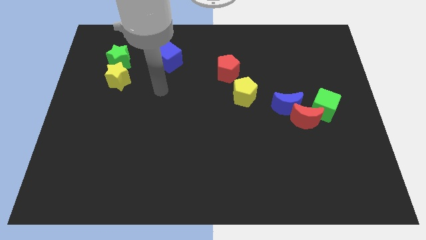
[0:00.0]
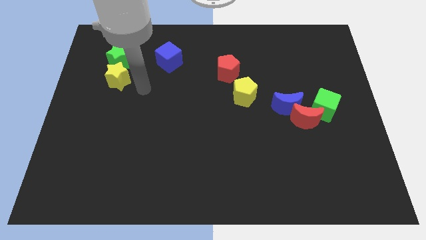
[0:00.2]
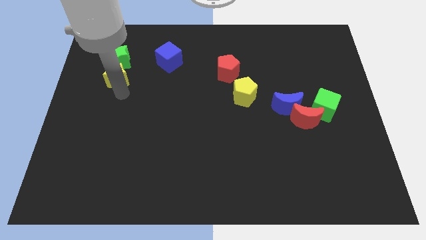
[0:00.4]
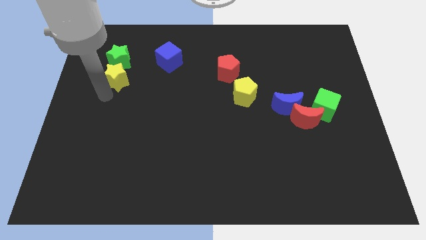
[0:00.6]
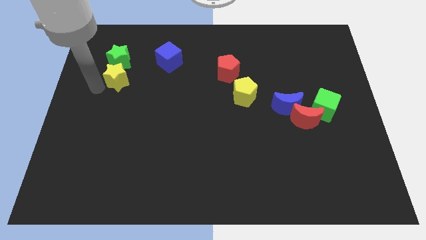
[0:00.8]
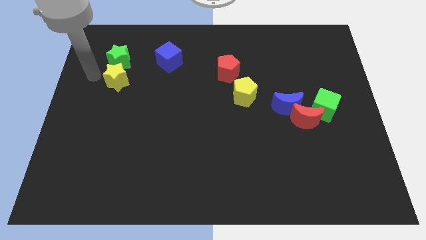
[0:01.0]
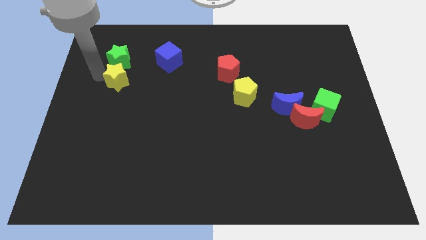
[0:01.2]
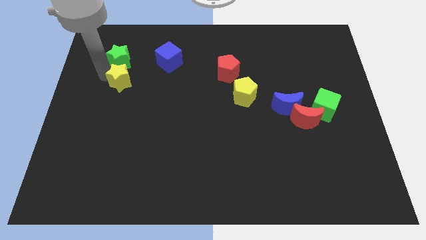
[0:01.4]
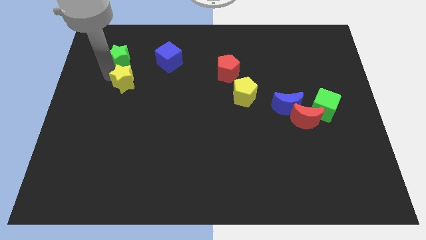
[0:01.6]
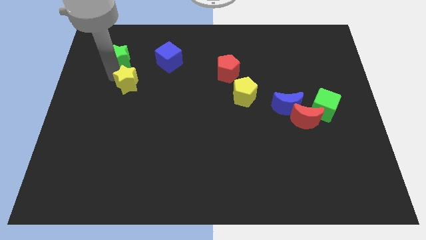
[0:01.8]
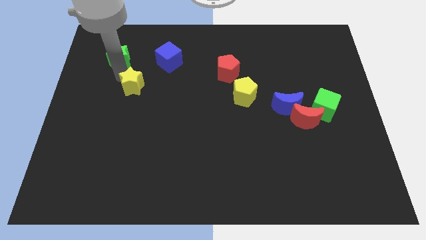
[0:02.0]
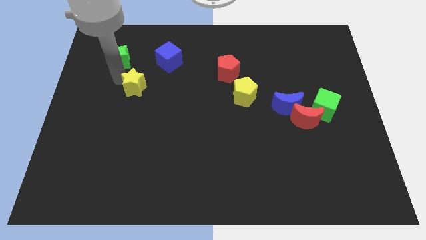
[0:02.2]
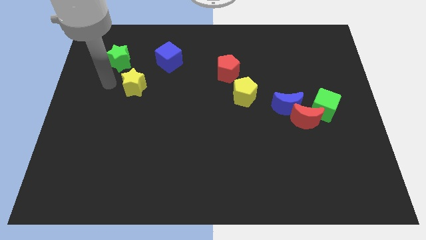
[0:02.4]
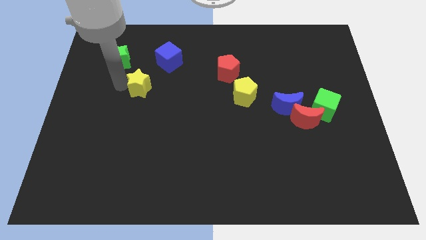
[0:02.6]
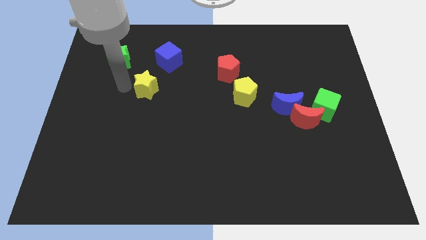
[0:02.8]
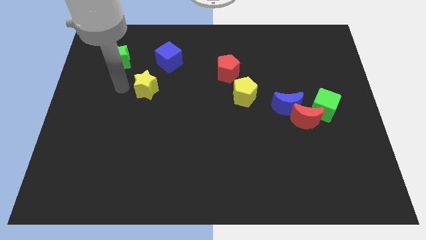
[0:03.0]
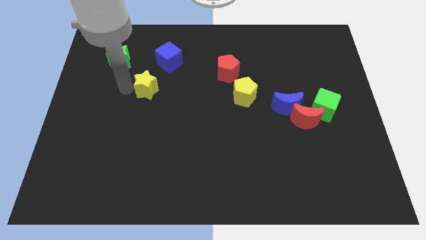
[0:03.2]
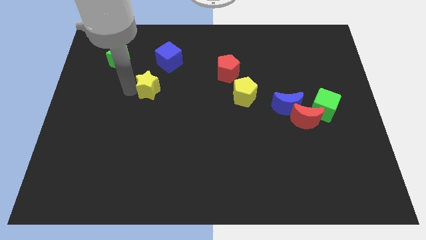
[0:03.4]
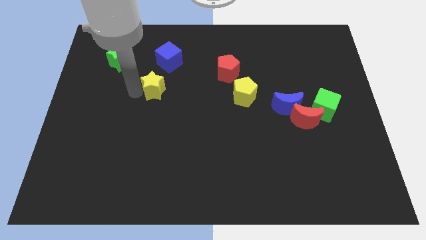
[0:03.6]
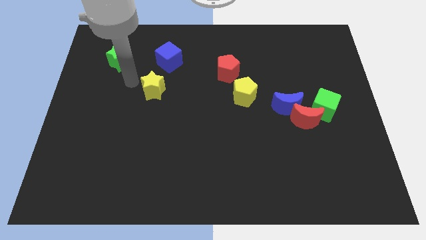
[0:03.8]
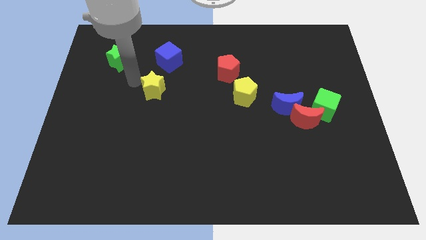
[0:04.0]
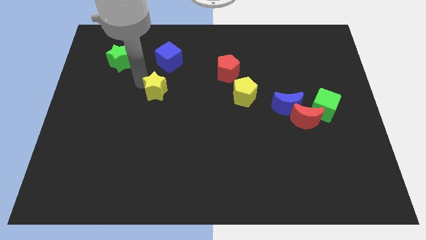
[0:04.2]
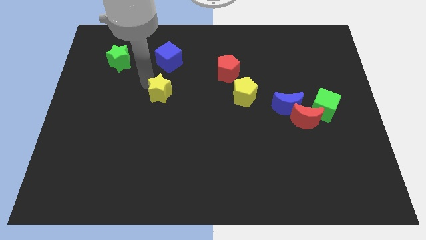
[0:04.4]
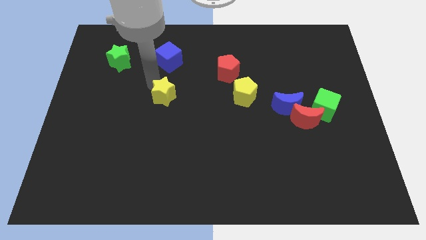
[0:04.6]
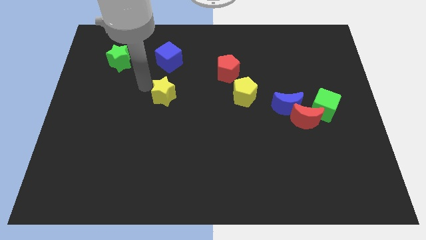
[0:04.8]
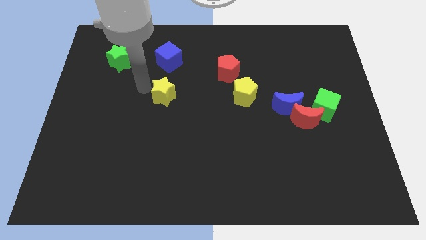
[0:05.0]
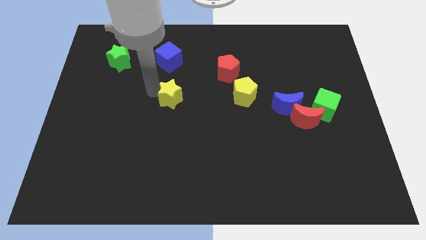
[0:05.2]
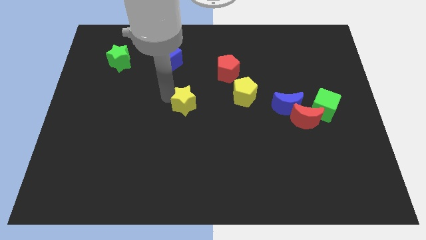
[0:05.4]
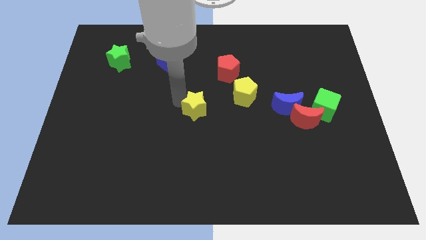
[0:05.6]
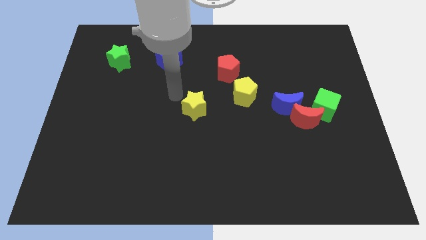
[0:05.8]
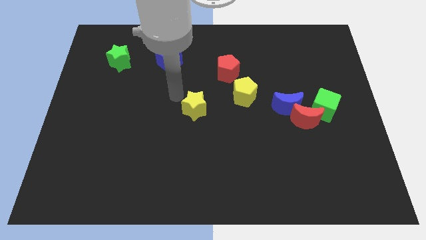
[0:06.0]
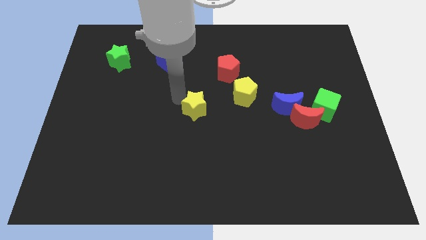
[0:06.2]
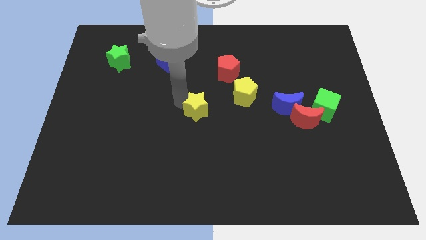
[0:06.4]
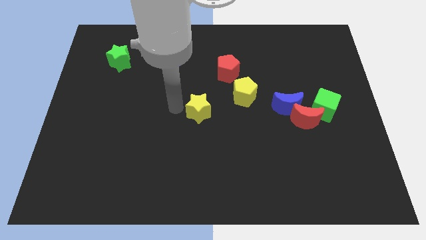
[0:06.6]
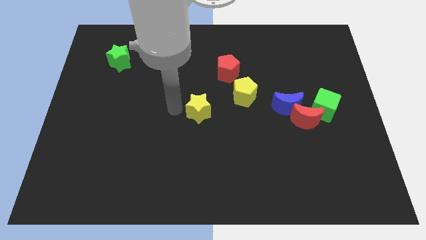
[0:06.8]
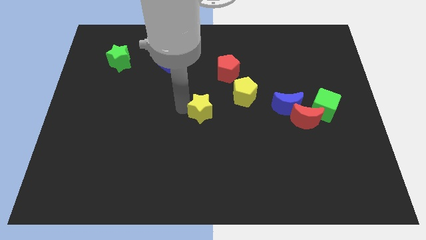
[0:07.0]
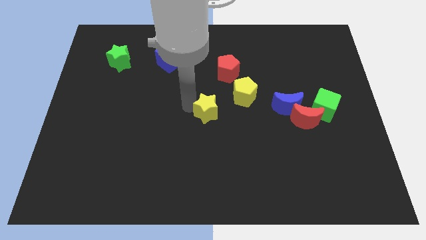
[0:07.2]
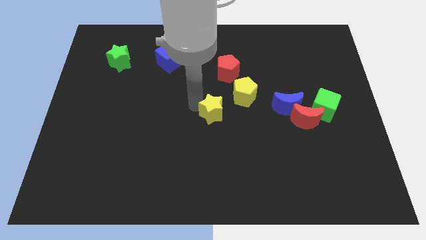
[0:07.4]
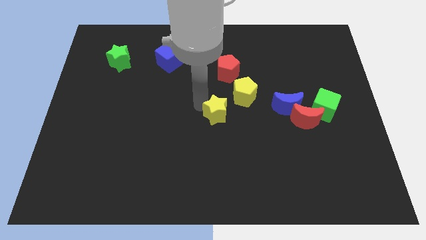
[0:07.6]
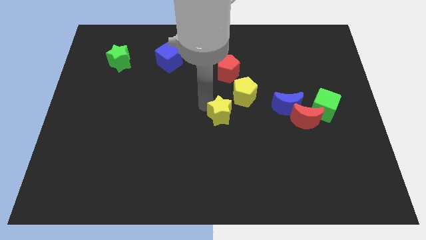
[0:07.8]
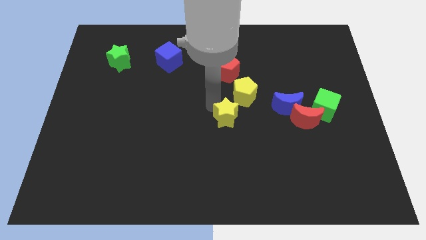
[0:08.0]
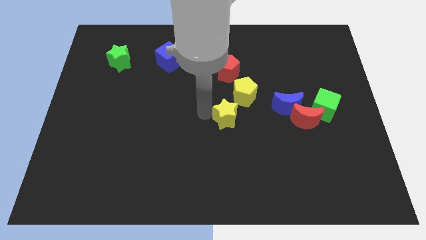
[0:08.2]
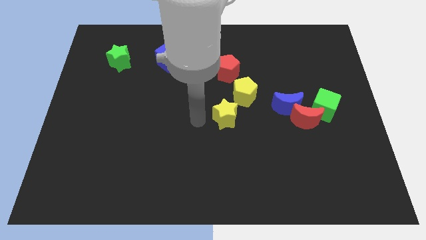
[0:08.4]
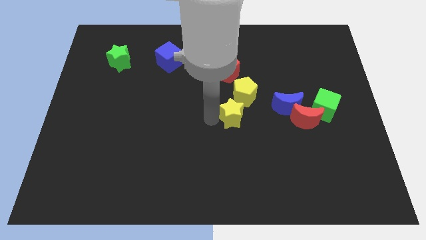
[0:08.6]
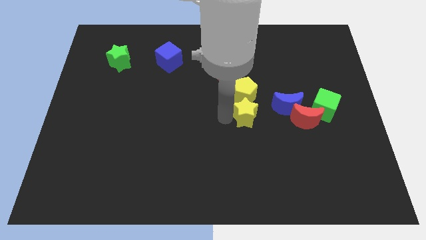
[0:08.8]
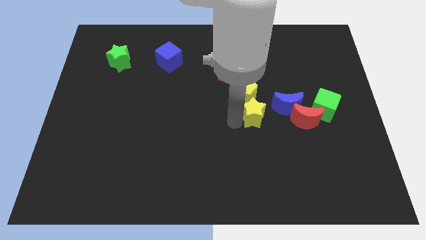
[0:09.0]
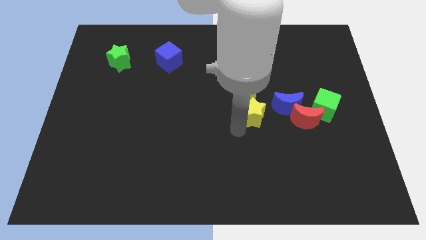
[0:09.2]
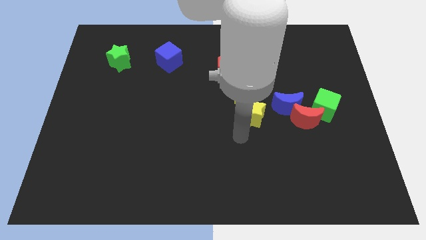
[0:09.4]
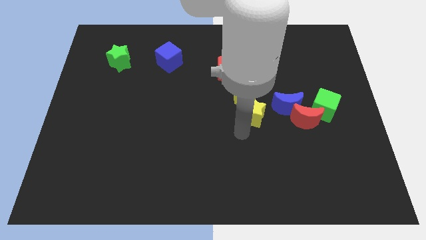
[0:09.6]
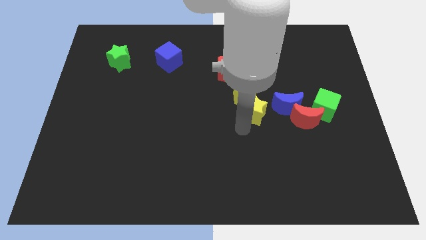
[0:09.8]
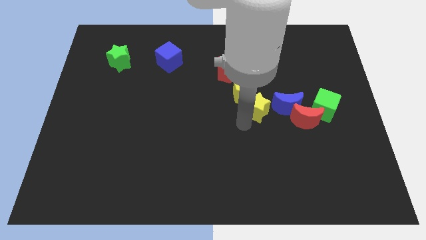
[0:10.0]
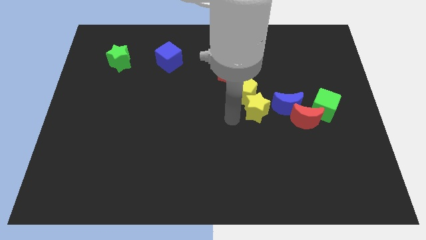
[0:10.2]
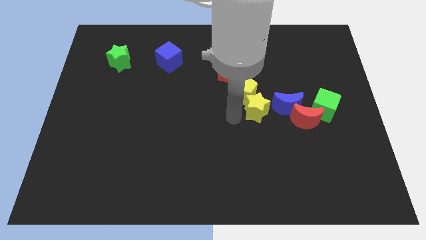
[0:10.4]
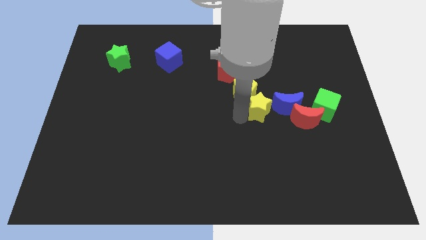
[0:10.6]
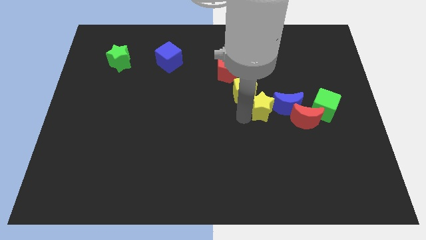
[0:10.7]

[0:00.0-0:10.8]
move the yellow star to the top left of the red moon

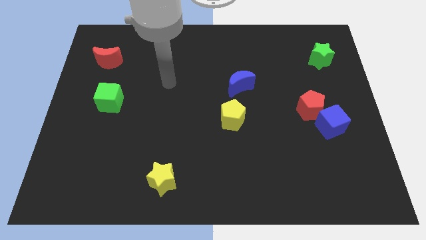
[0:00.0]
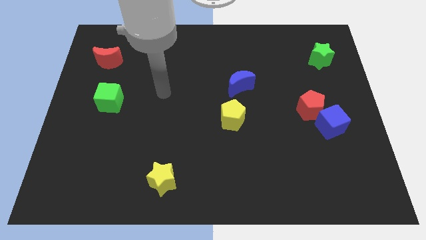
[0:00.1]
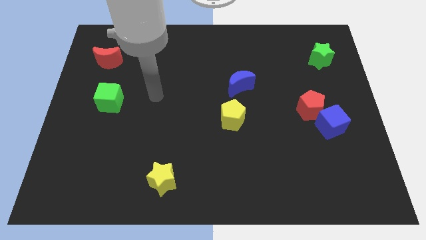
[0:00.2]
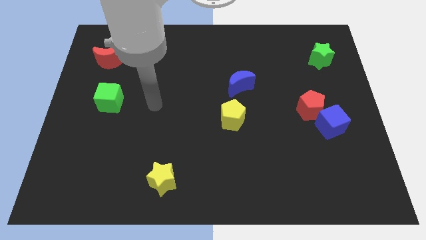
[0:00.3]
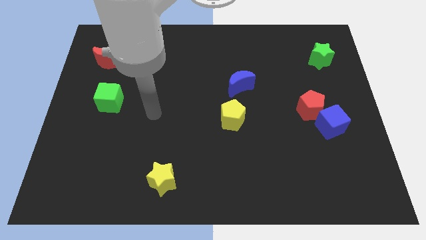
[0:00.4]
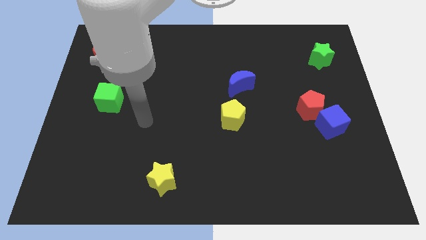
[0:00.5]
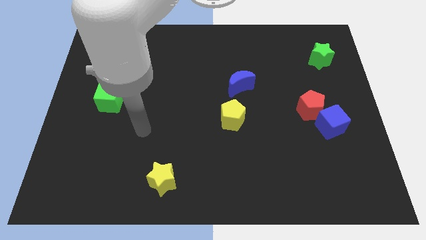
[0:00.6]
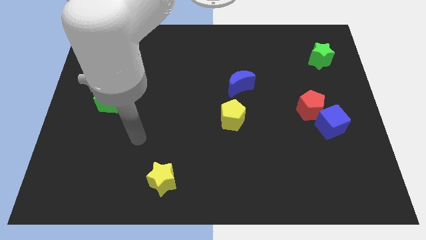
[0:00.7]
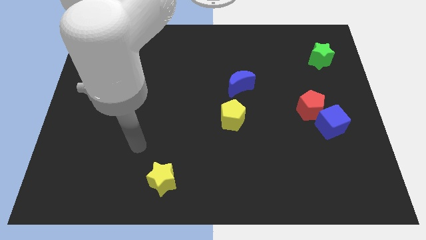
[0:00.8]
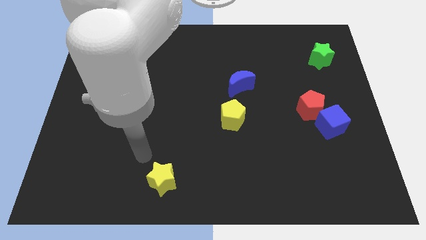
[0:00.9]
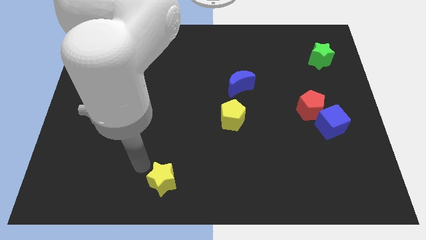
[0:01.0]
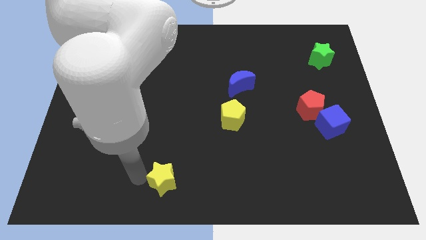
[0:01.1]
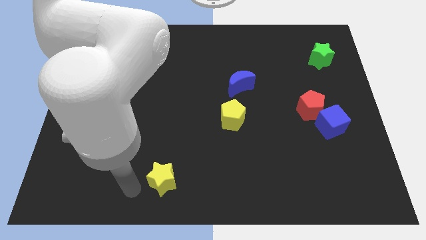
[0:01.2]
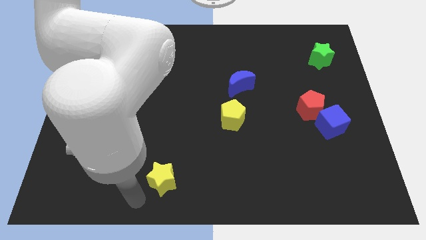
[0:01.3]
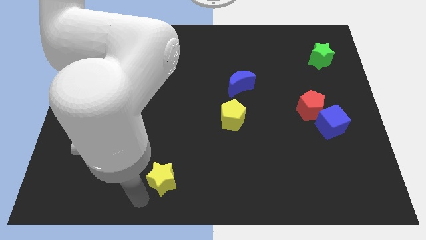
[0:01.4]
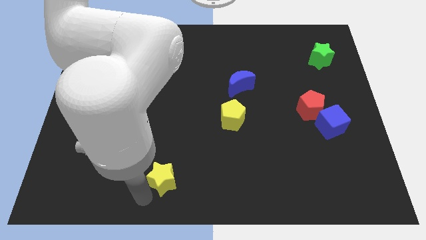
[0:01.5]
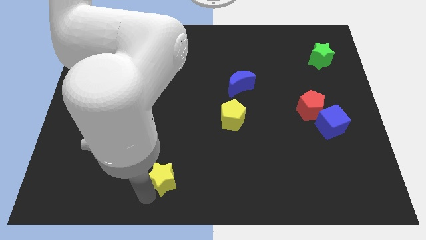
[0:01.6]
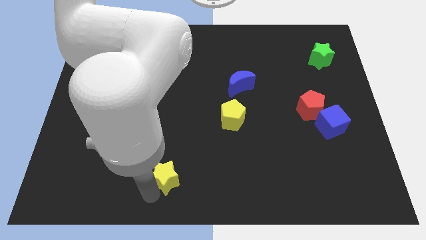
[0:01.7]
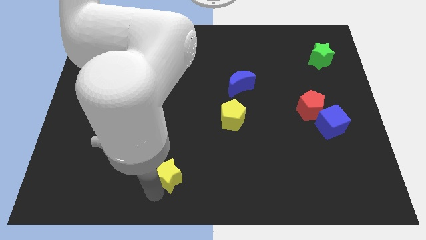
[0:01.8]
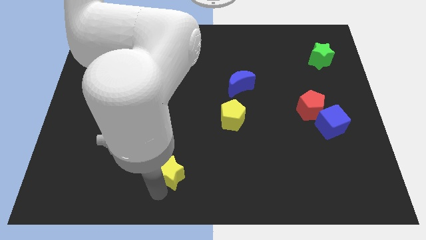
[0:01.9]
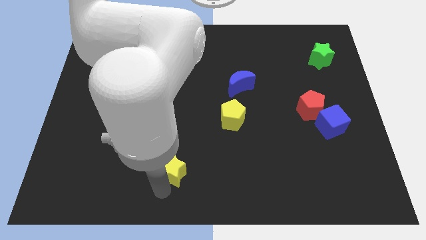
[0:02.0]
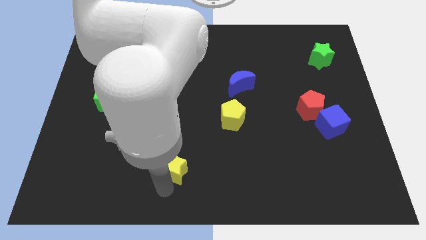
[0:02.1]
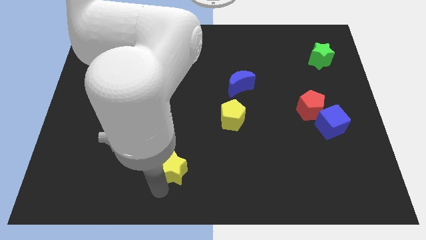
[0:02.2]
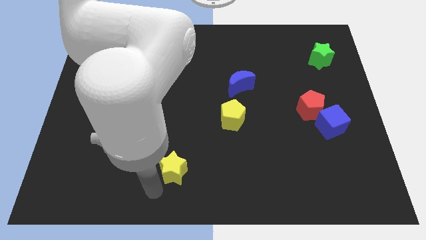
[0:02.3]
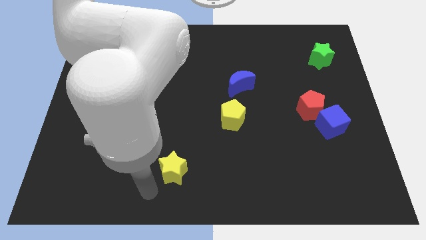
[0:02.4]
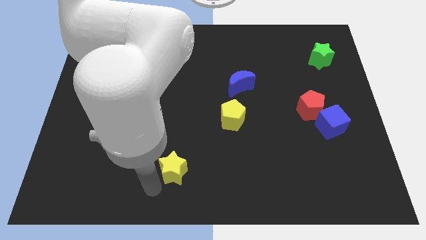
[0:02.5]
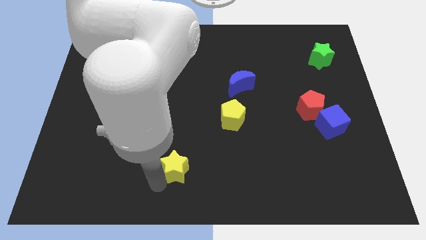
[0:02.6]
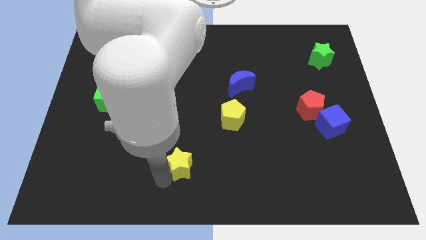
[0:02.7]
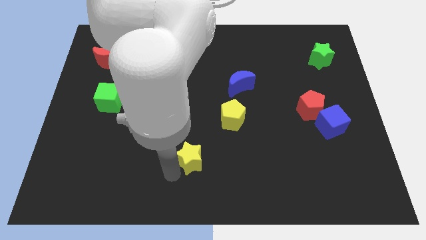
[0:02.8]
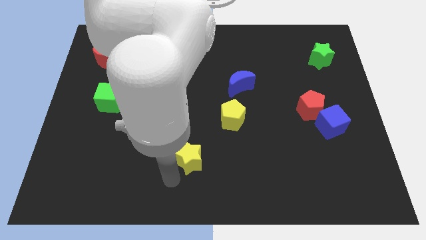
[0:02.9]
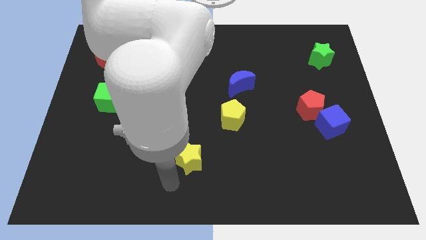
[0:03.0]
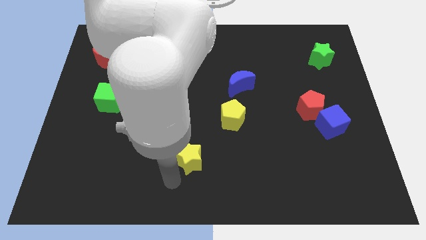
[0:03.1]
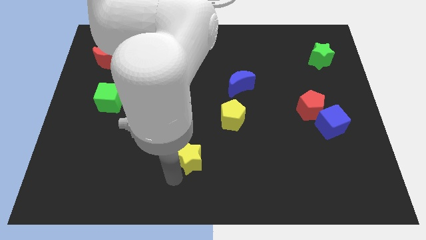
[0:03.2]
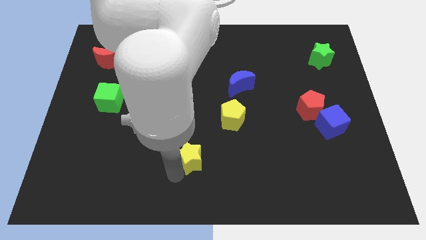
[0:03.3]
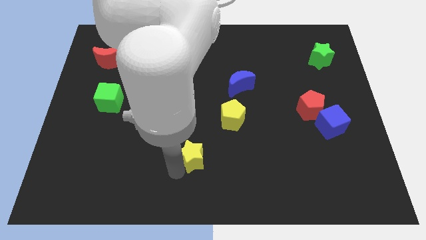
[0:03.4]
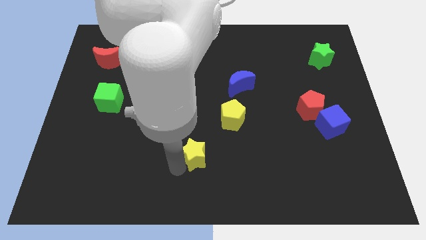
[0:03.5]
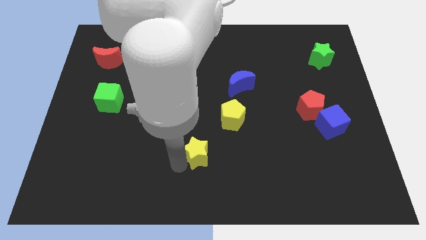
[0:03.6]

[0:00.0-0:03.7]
move the yellow star diagonally down and to the left of the yellow pentagon
